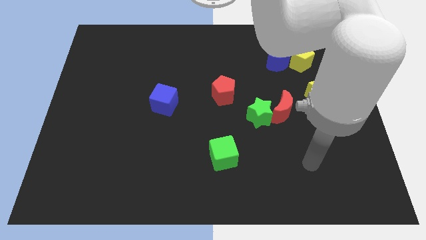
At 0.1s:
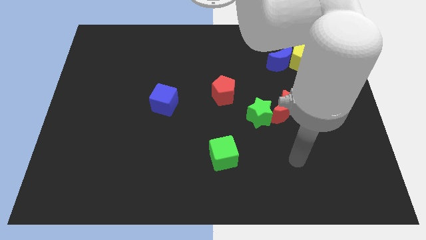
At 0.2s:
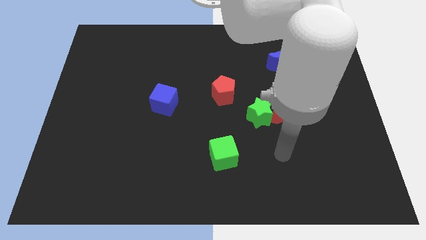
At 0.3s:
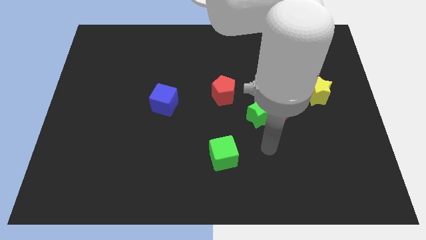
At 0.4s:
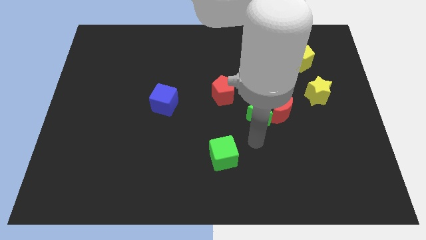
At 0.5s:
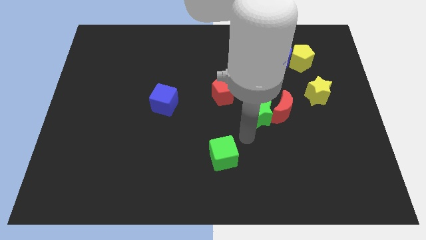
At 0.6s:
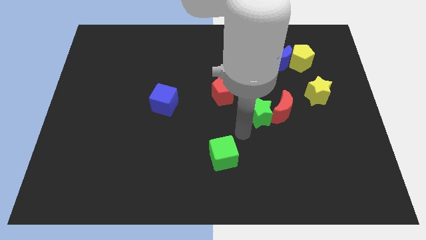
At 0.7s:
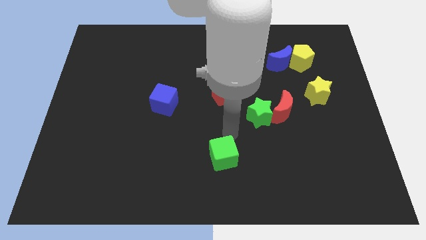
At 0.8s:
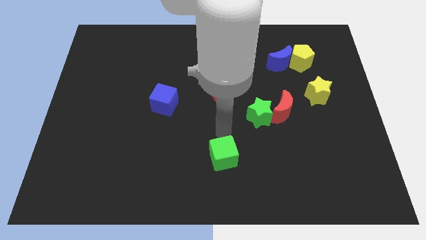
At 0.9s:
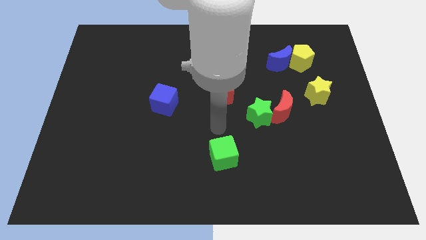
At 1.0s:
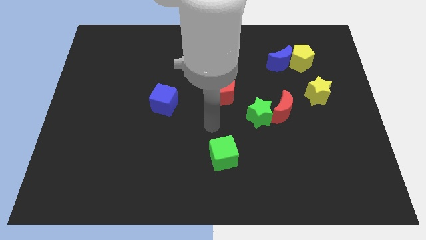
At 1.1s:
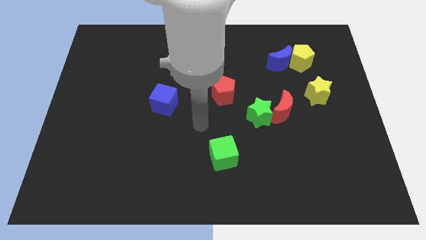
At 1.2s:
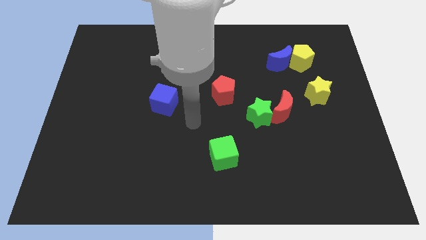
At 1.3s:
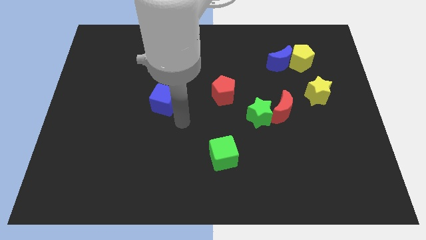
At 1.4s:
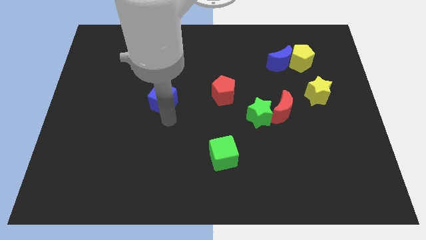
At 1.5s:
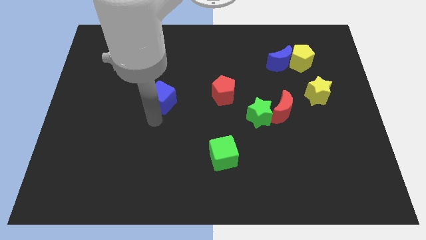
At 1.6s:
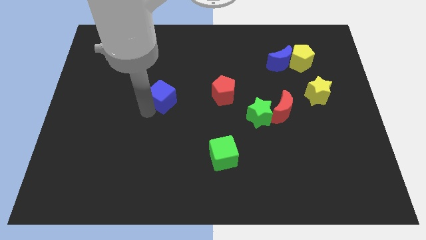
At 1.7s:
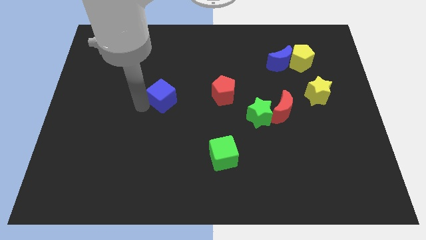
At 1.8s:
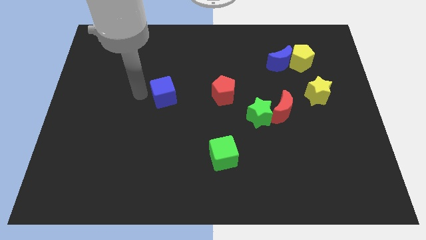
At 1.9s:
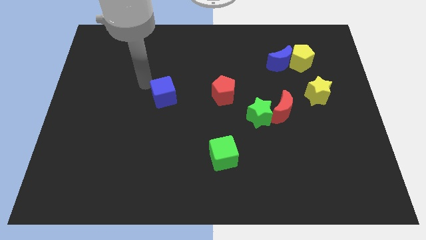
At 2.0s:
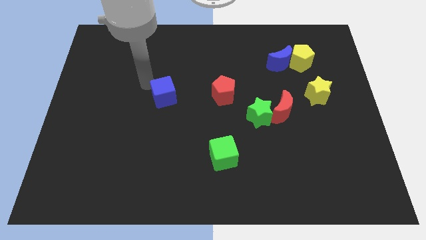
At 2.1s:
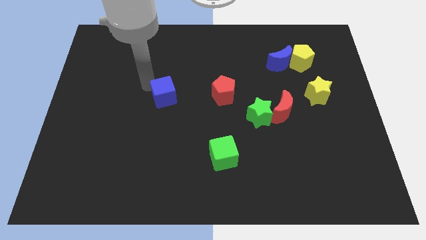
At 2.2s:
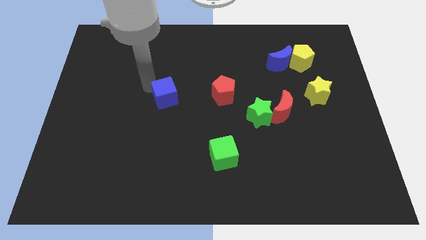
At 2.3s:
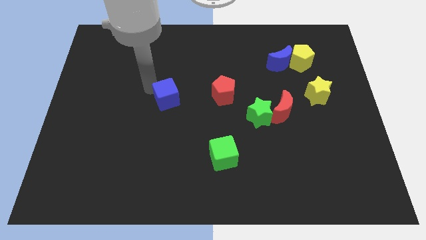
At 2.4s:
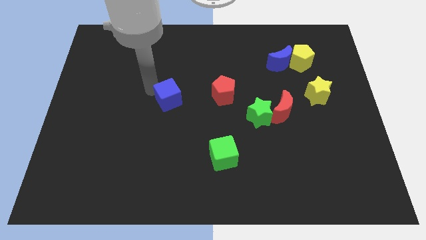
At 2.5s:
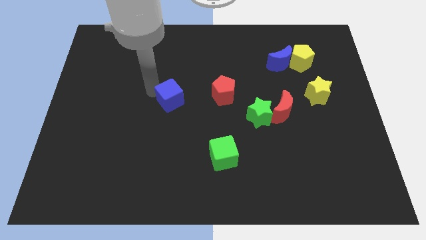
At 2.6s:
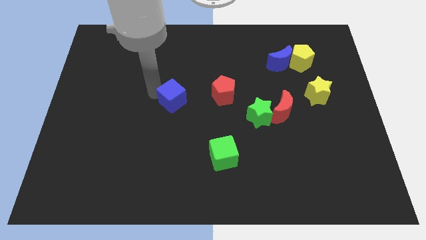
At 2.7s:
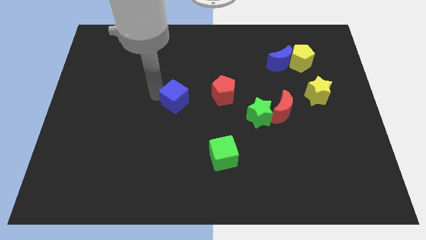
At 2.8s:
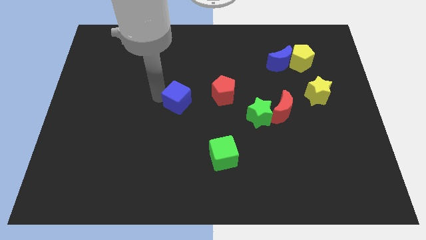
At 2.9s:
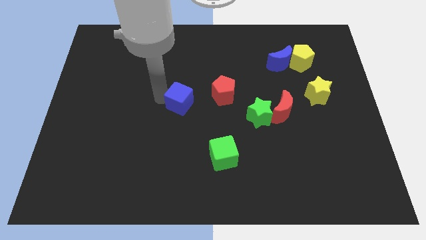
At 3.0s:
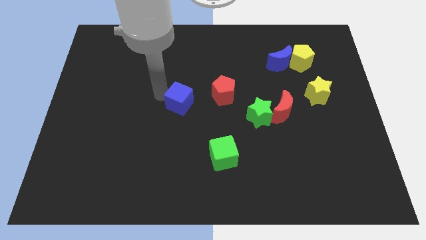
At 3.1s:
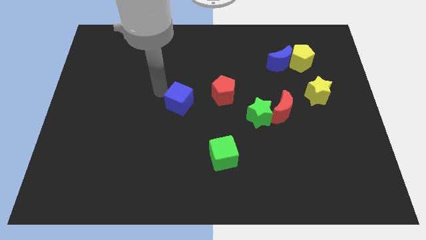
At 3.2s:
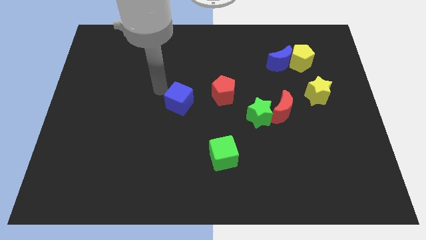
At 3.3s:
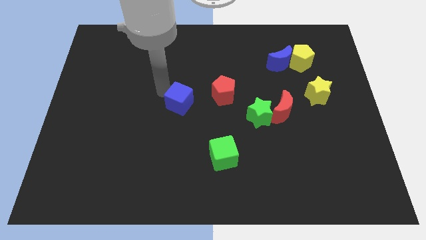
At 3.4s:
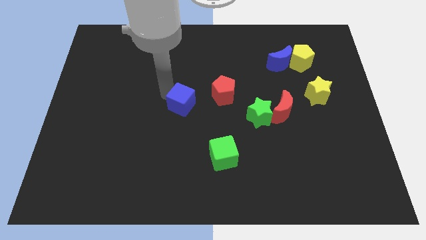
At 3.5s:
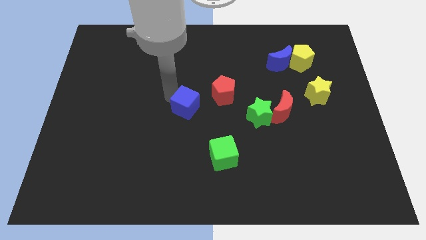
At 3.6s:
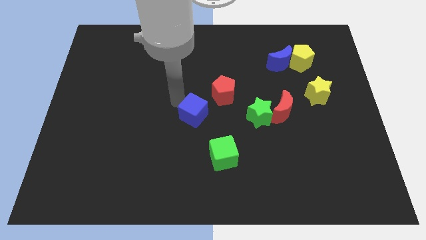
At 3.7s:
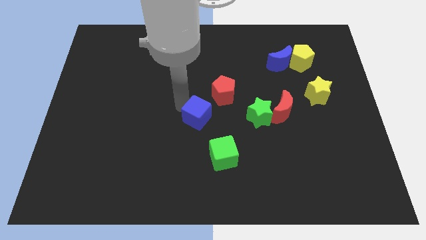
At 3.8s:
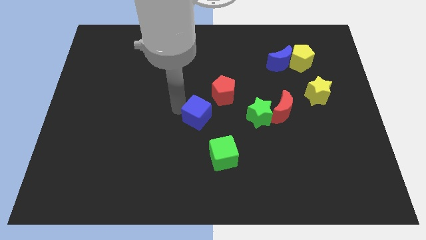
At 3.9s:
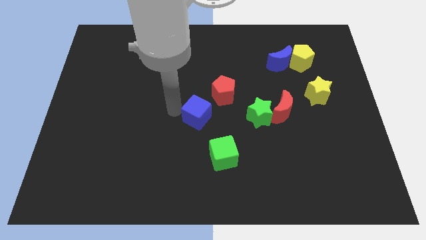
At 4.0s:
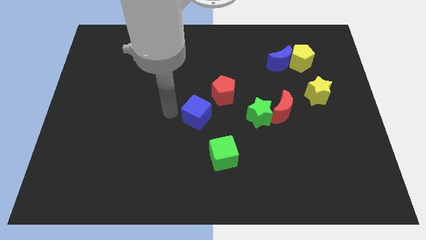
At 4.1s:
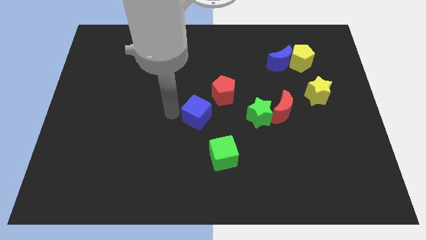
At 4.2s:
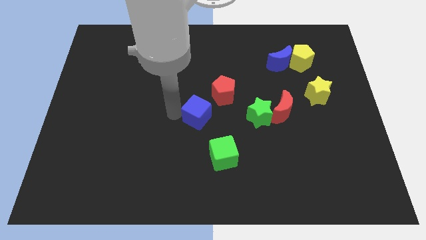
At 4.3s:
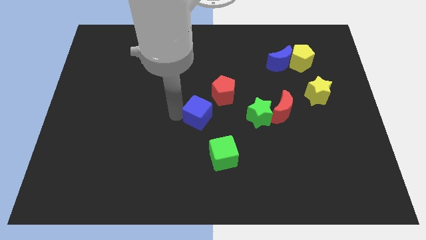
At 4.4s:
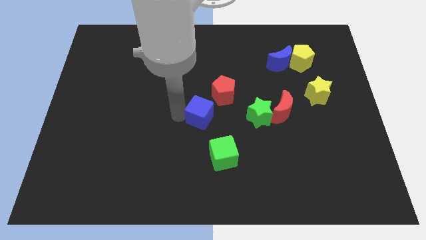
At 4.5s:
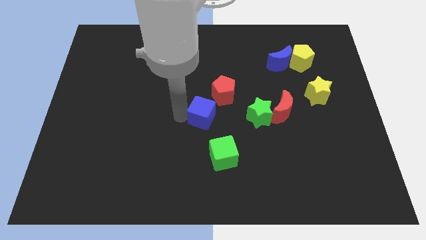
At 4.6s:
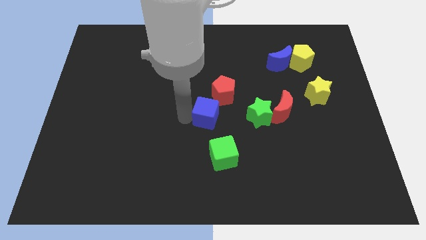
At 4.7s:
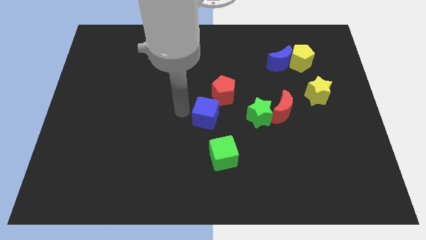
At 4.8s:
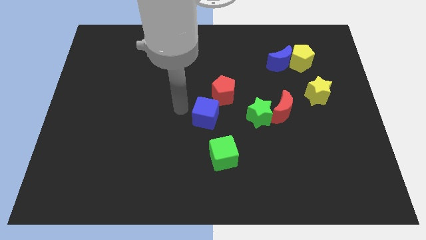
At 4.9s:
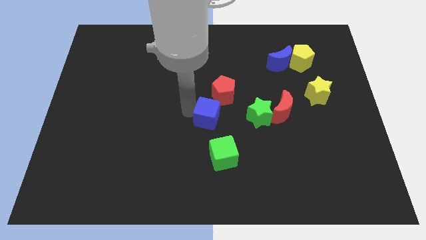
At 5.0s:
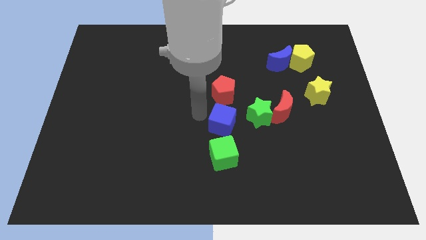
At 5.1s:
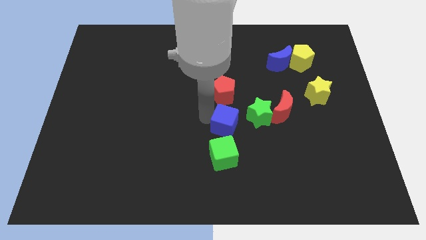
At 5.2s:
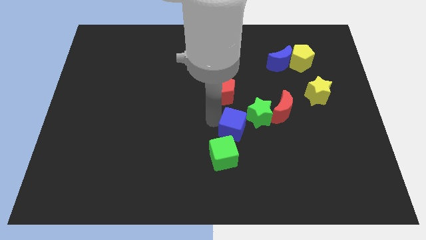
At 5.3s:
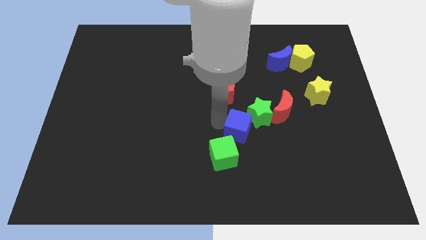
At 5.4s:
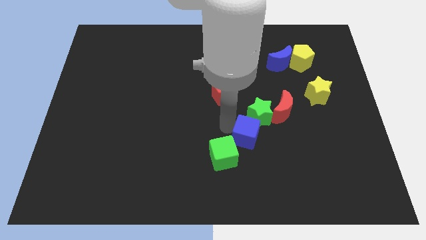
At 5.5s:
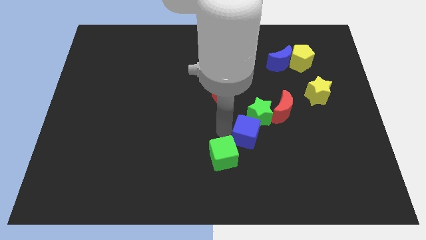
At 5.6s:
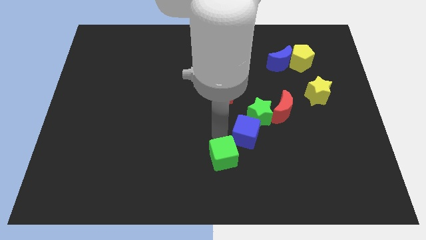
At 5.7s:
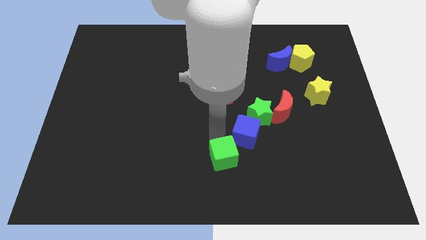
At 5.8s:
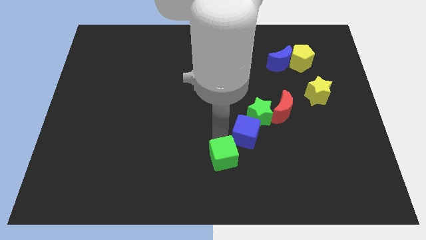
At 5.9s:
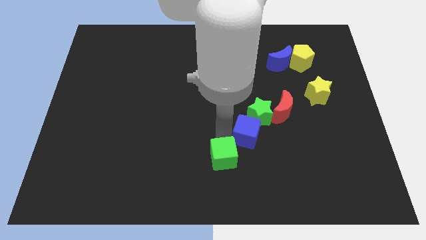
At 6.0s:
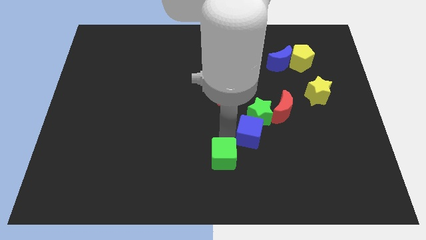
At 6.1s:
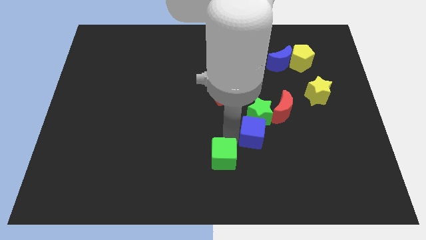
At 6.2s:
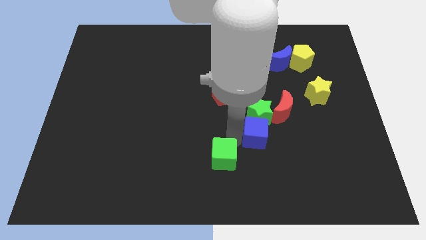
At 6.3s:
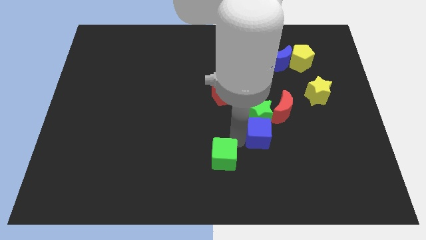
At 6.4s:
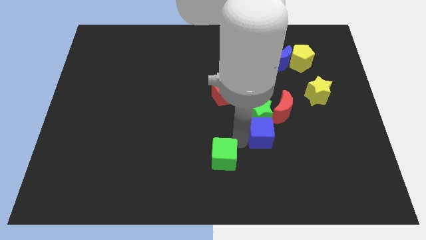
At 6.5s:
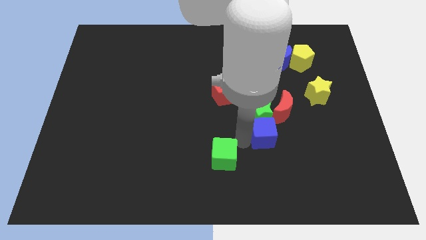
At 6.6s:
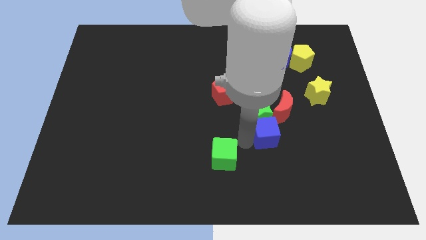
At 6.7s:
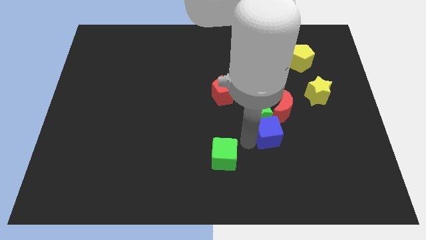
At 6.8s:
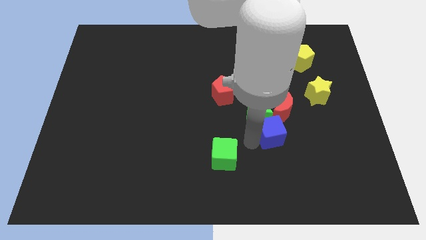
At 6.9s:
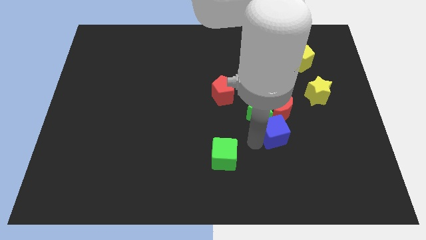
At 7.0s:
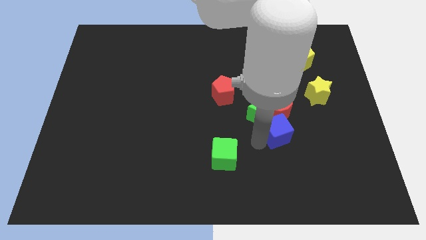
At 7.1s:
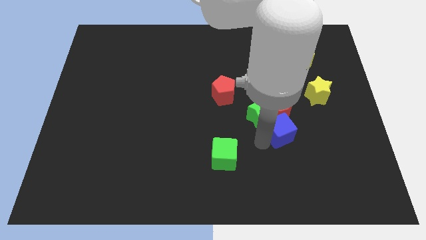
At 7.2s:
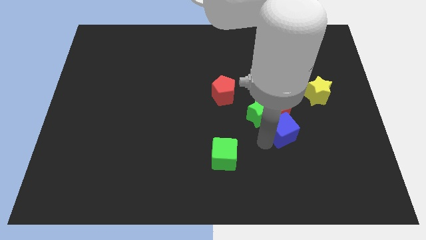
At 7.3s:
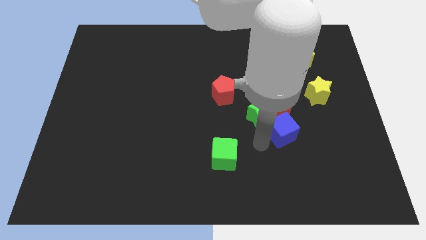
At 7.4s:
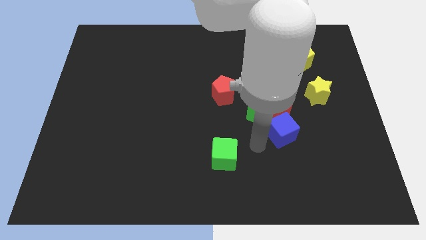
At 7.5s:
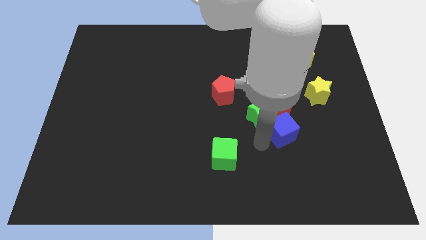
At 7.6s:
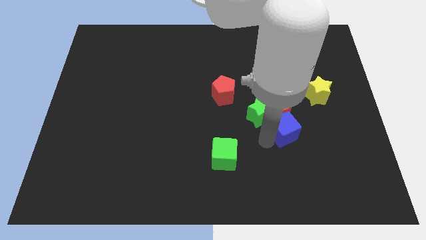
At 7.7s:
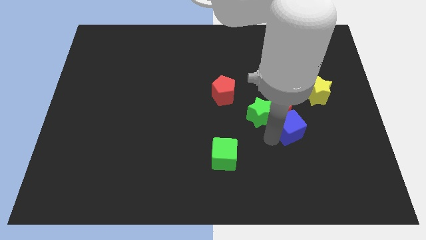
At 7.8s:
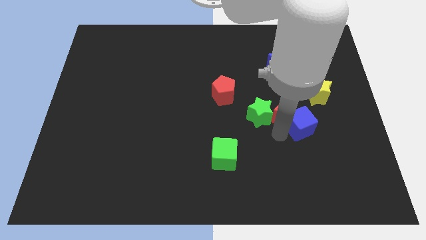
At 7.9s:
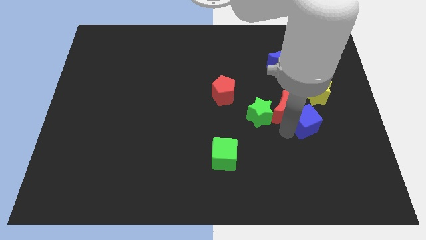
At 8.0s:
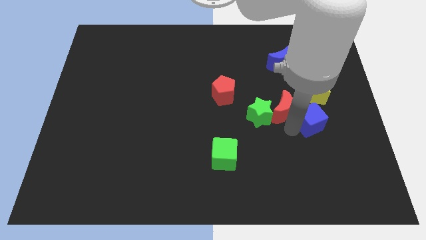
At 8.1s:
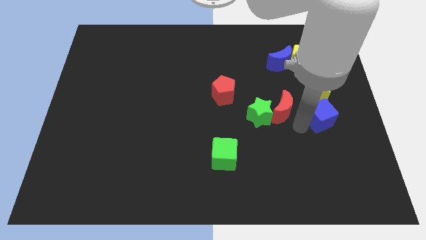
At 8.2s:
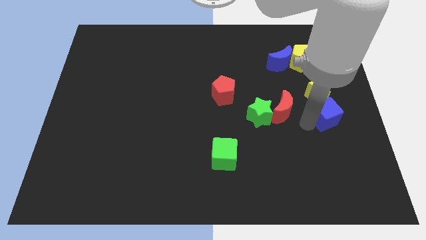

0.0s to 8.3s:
move the blue cube to the right side of the board
